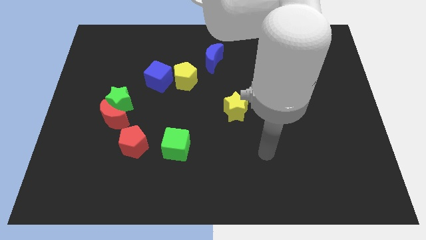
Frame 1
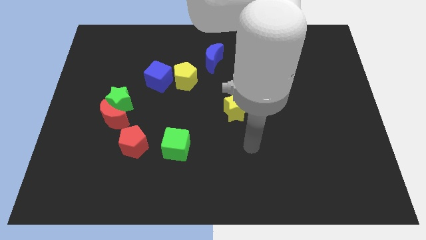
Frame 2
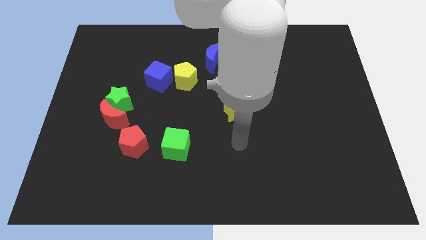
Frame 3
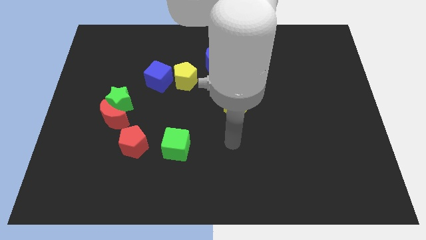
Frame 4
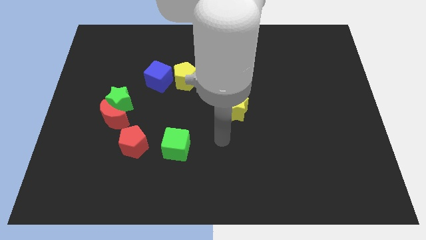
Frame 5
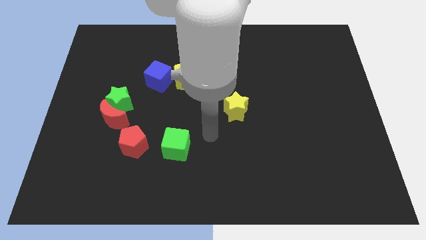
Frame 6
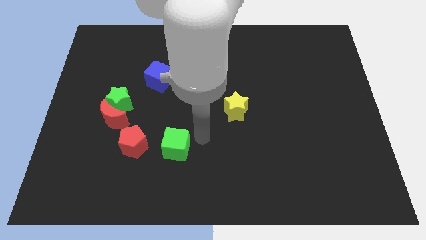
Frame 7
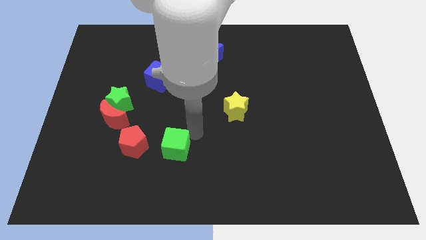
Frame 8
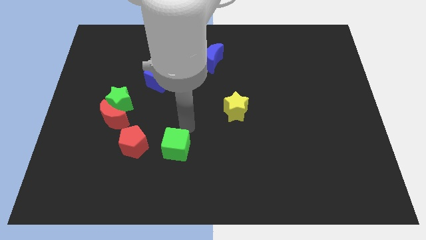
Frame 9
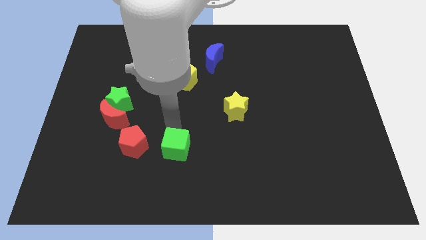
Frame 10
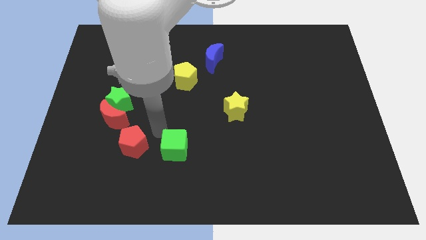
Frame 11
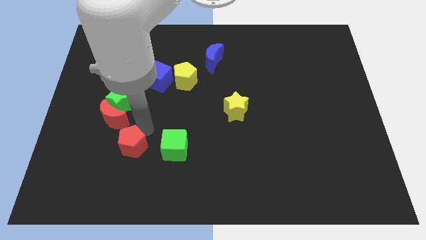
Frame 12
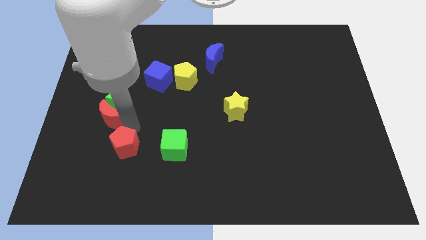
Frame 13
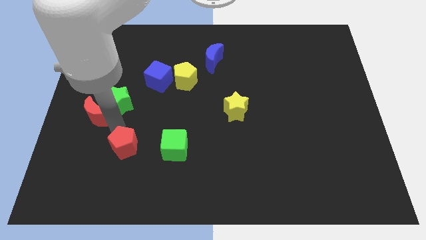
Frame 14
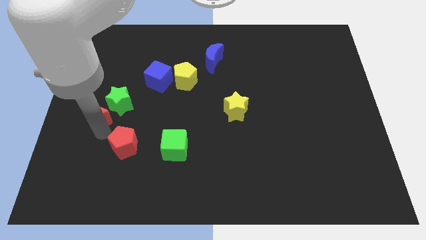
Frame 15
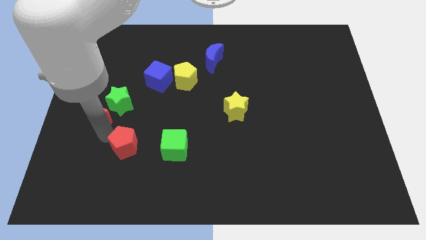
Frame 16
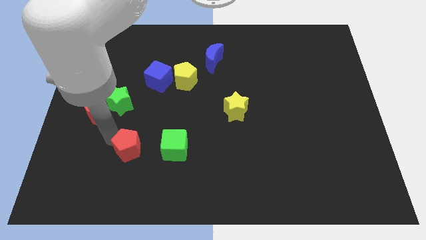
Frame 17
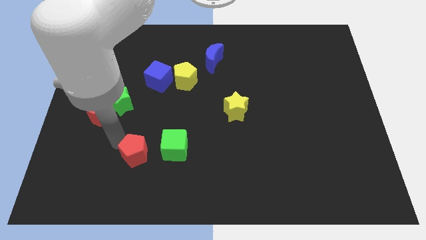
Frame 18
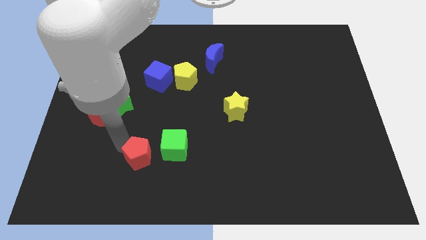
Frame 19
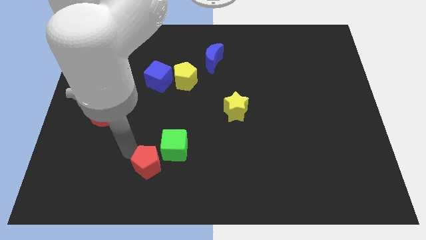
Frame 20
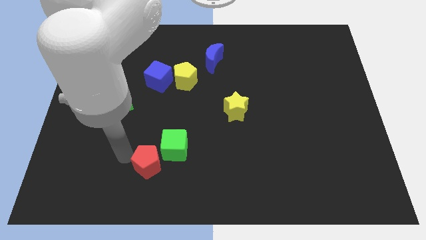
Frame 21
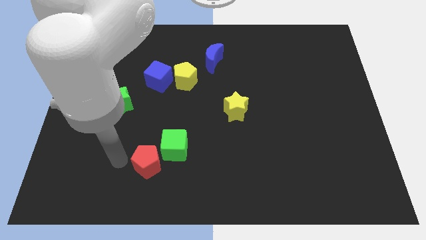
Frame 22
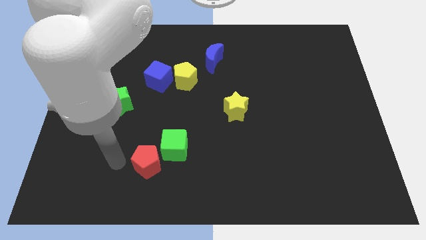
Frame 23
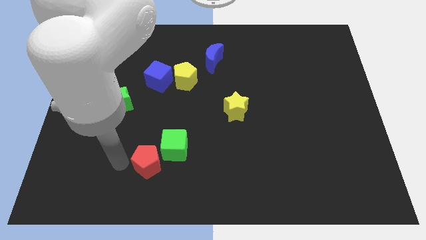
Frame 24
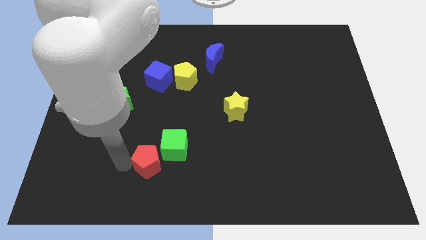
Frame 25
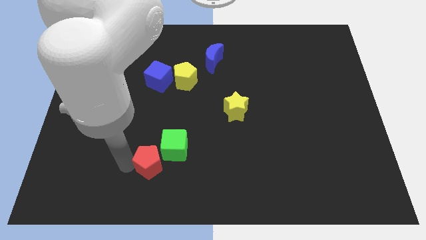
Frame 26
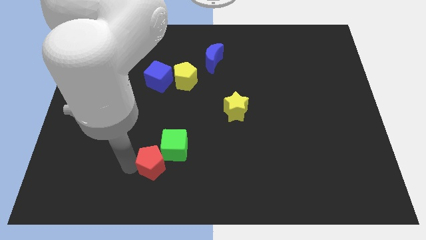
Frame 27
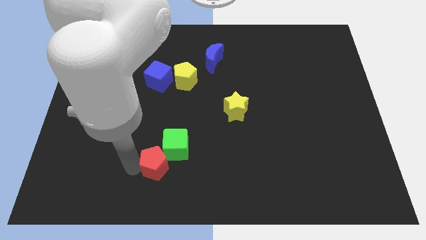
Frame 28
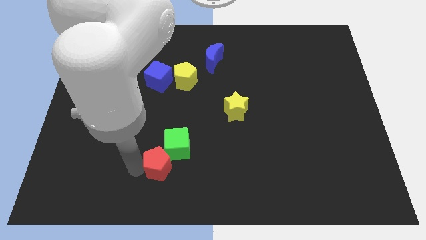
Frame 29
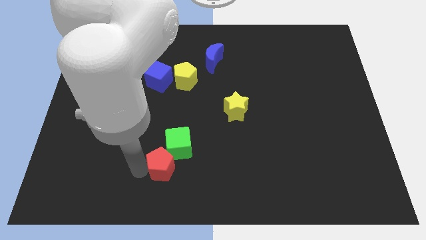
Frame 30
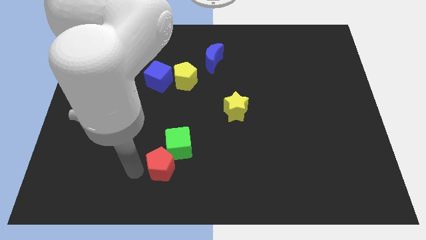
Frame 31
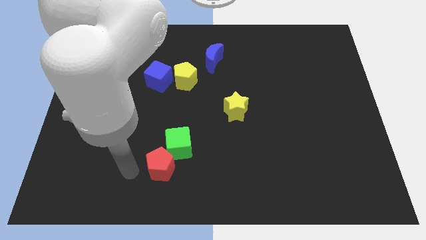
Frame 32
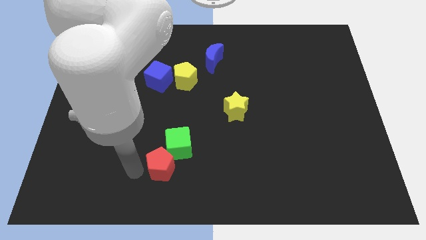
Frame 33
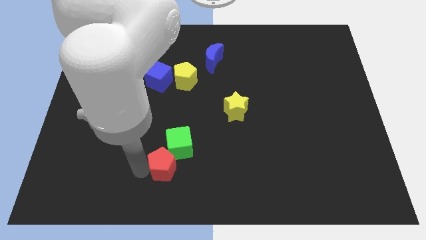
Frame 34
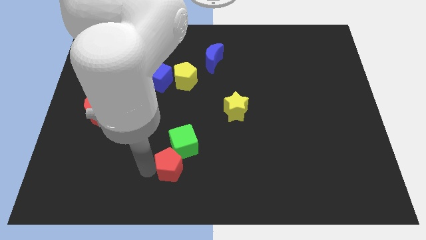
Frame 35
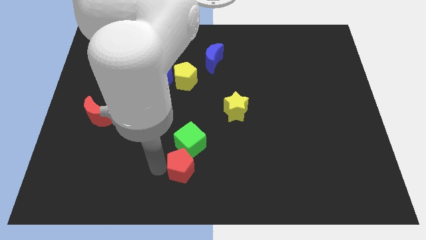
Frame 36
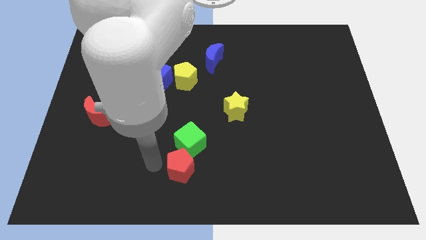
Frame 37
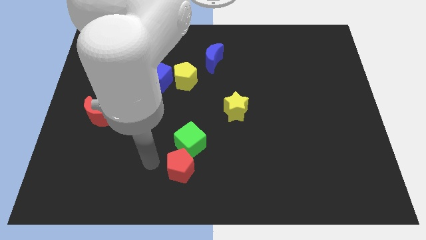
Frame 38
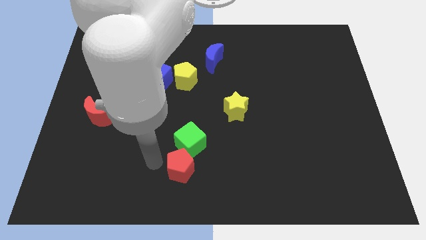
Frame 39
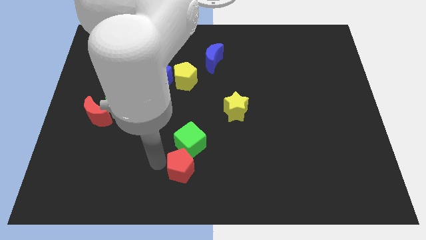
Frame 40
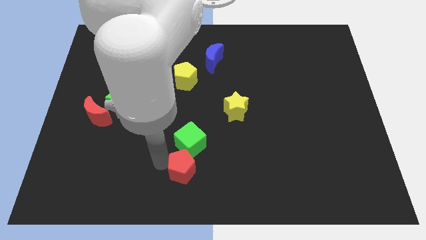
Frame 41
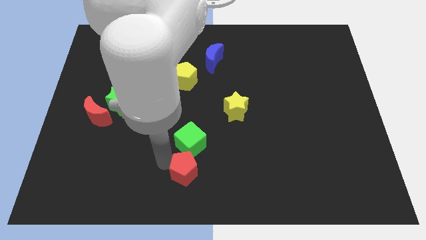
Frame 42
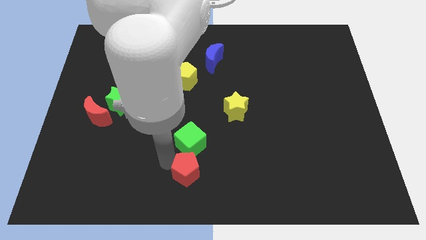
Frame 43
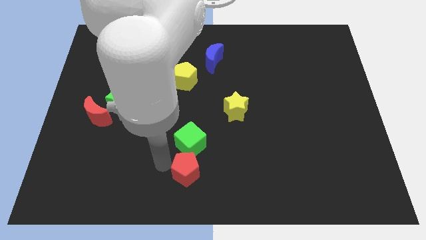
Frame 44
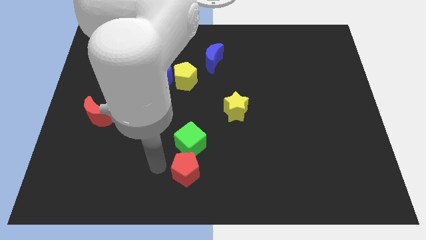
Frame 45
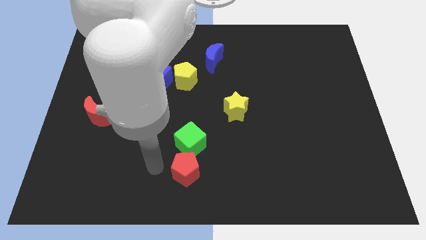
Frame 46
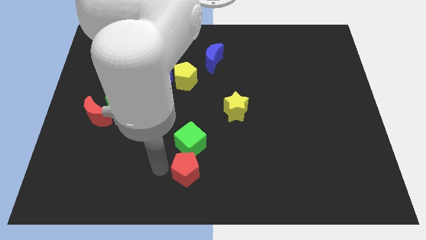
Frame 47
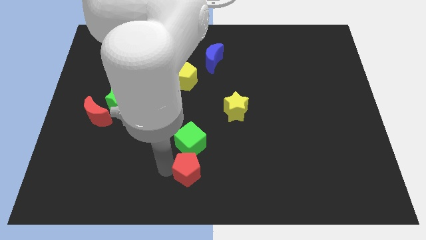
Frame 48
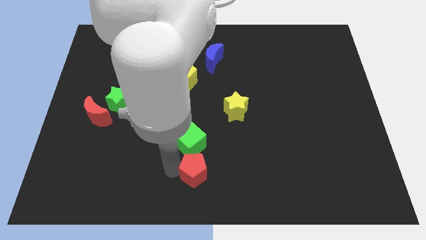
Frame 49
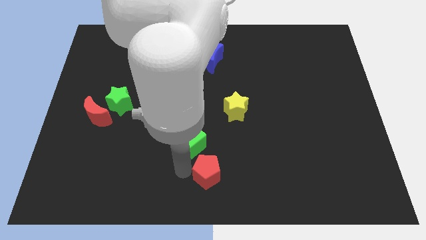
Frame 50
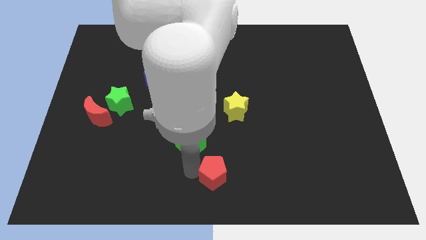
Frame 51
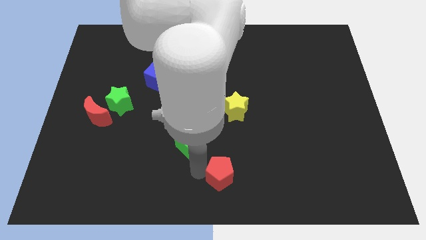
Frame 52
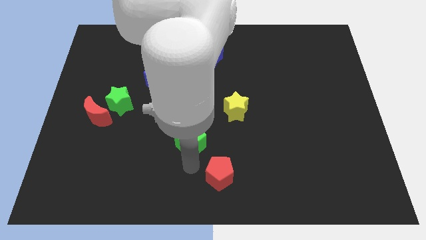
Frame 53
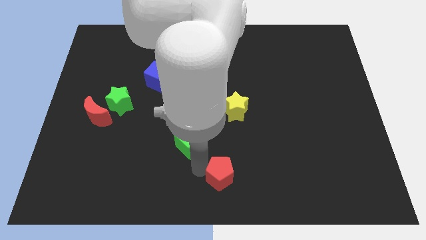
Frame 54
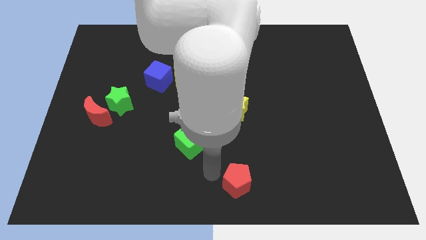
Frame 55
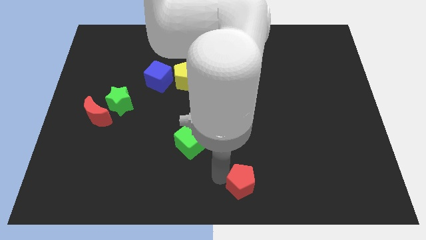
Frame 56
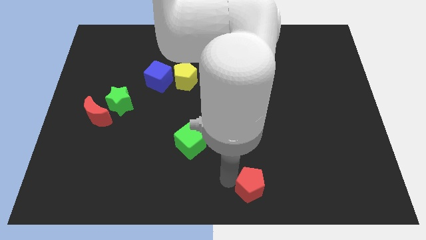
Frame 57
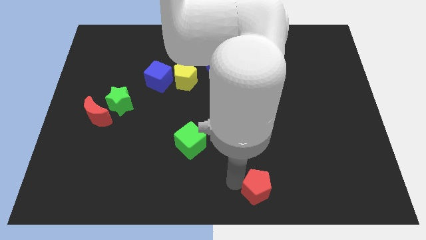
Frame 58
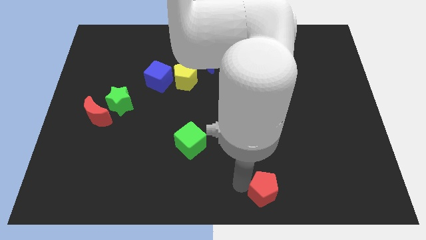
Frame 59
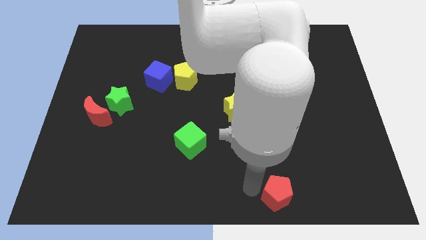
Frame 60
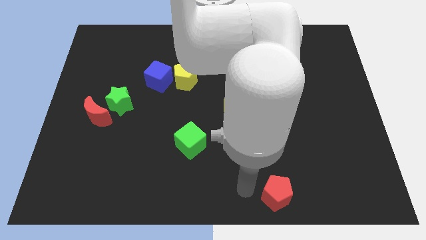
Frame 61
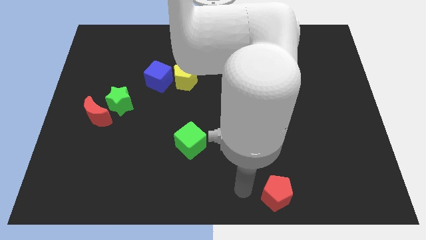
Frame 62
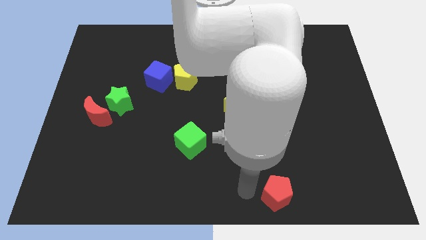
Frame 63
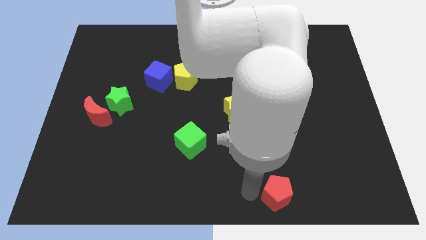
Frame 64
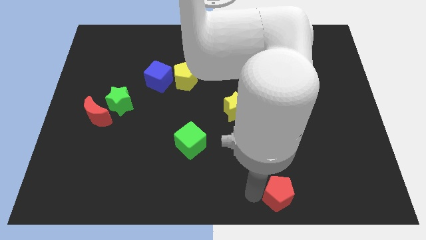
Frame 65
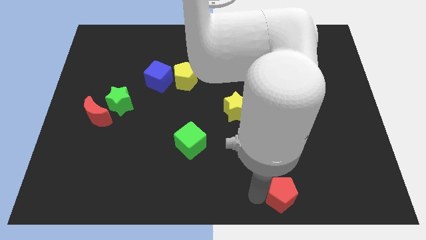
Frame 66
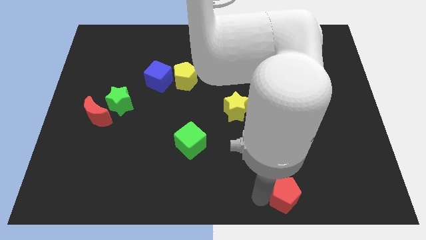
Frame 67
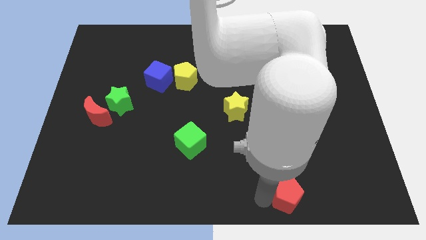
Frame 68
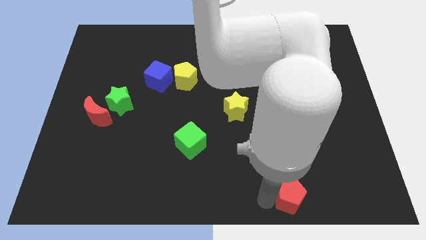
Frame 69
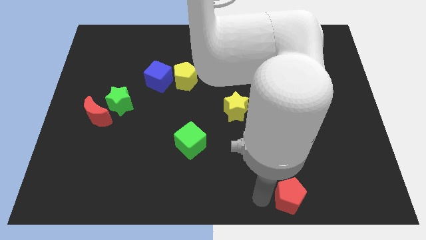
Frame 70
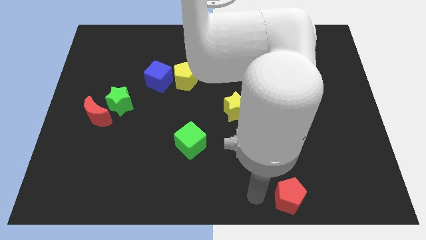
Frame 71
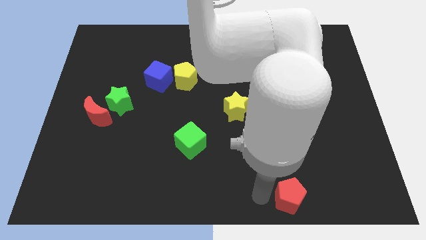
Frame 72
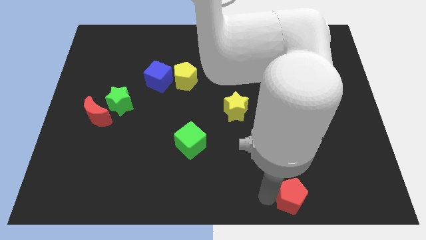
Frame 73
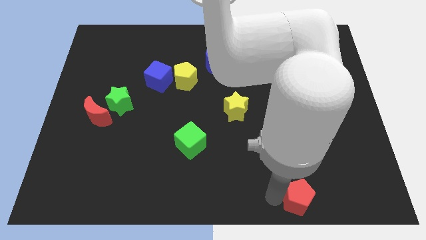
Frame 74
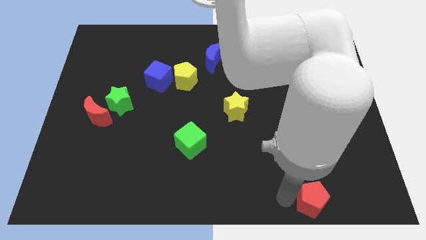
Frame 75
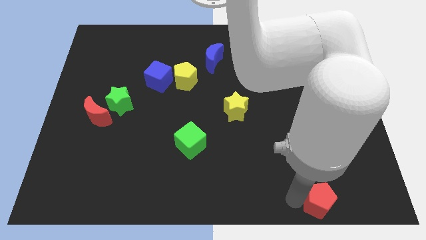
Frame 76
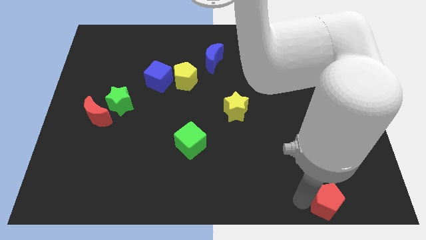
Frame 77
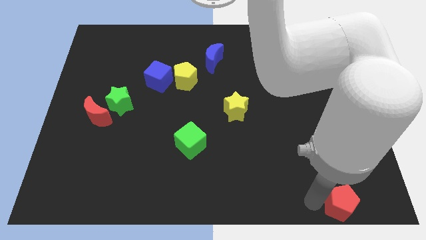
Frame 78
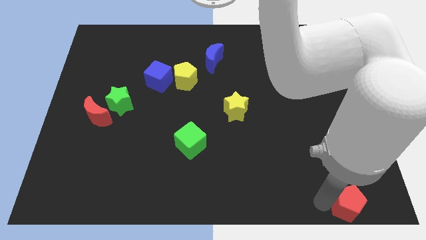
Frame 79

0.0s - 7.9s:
move the red pentagon to the bottom right of the board

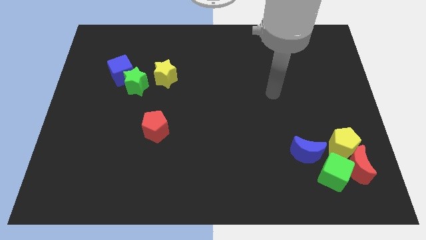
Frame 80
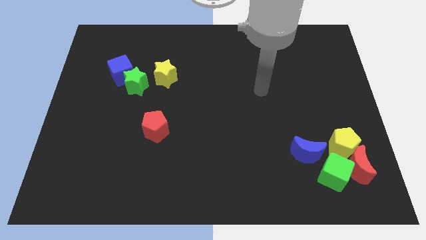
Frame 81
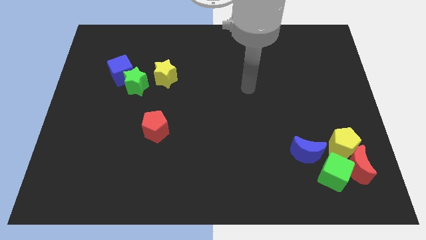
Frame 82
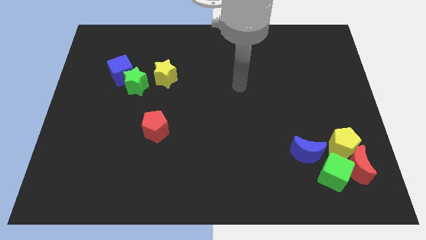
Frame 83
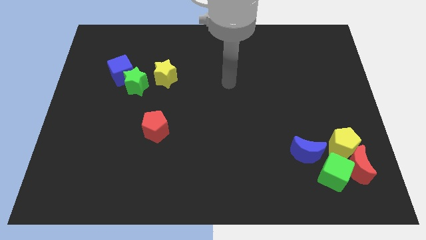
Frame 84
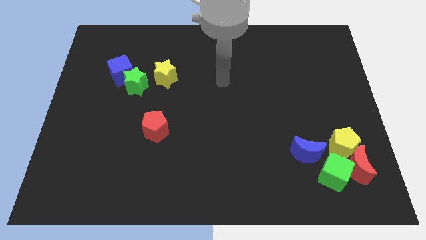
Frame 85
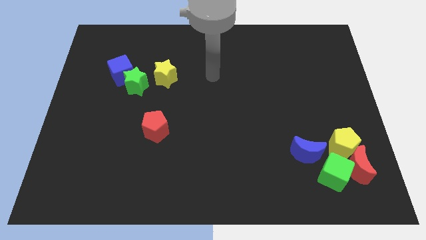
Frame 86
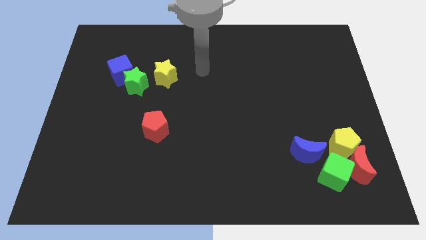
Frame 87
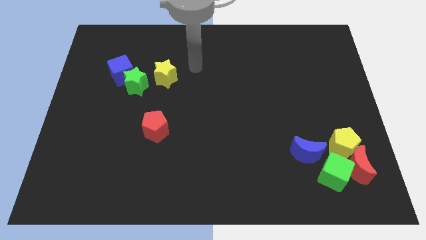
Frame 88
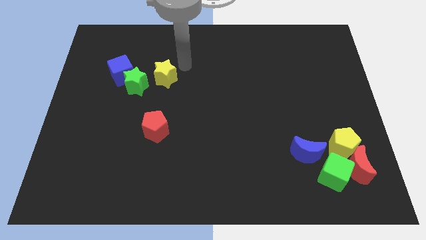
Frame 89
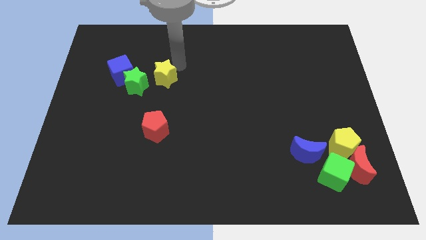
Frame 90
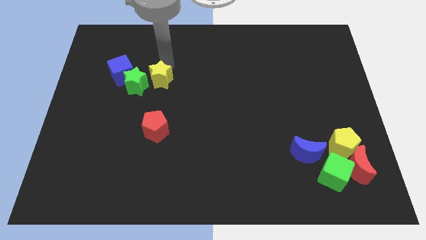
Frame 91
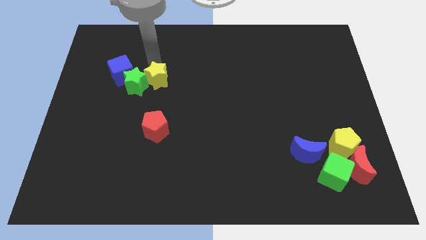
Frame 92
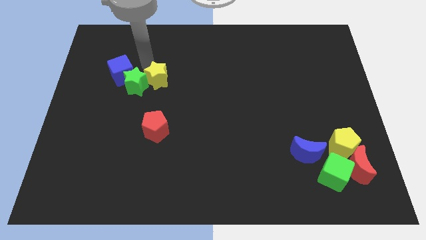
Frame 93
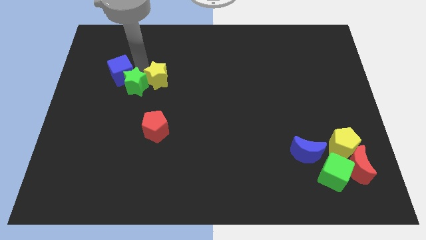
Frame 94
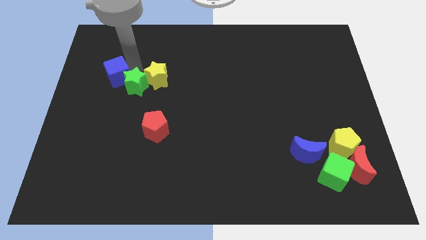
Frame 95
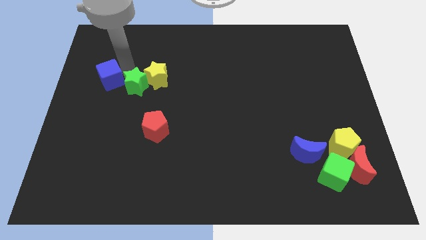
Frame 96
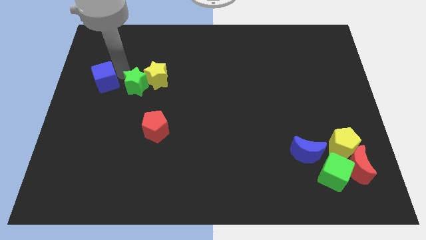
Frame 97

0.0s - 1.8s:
push the blue cube to the left side of the board
